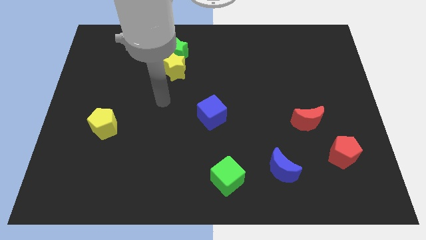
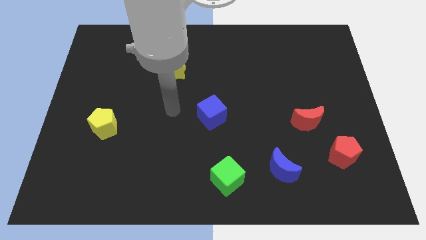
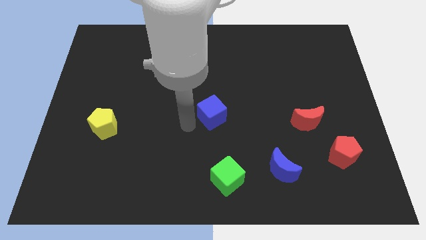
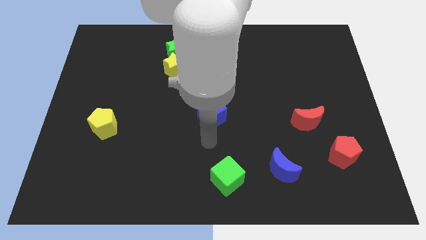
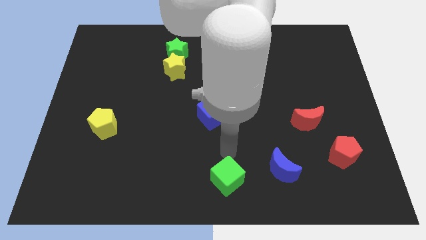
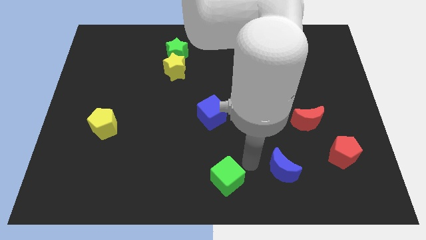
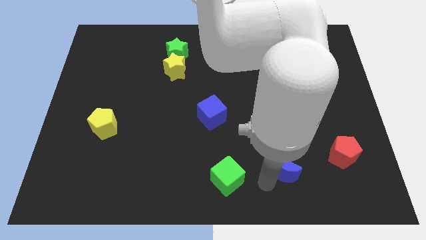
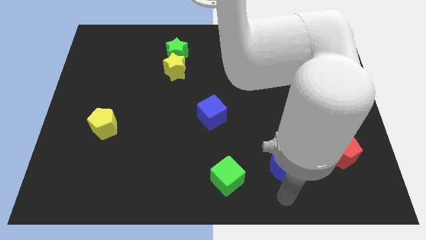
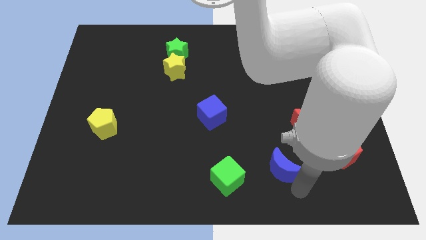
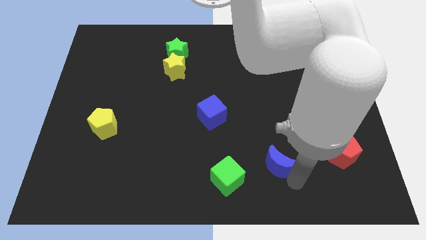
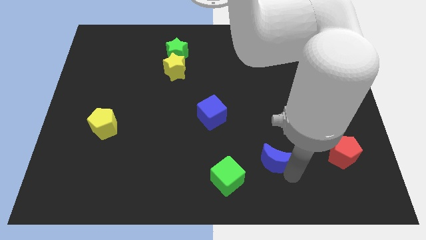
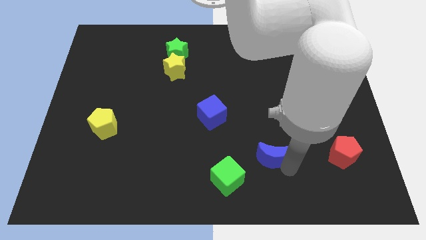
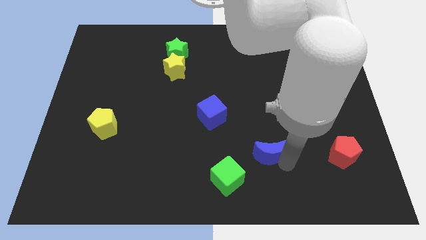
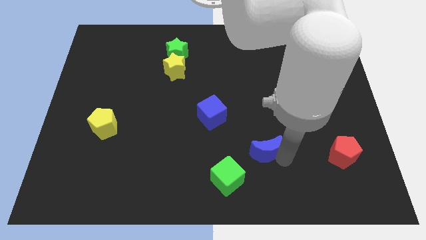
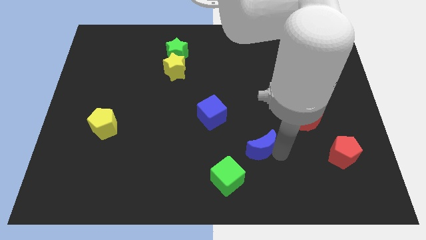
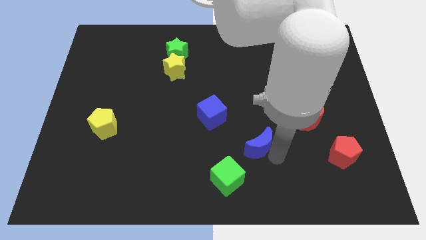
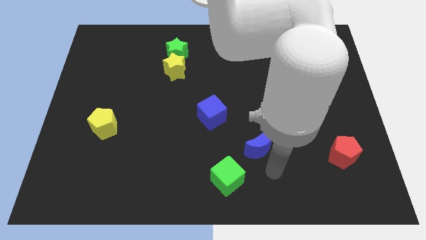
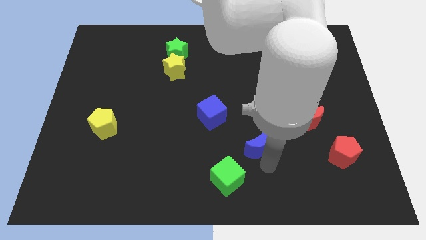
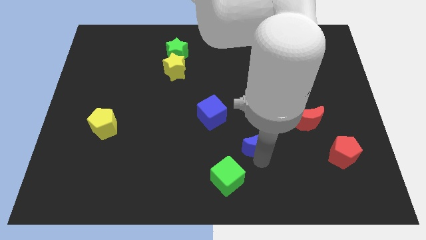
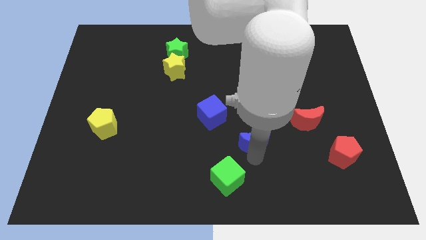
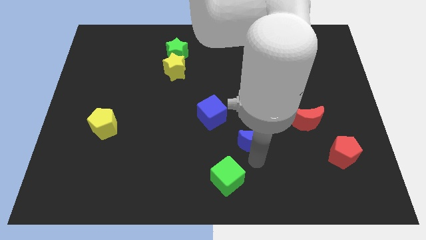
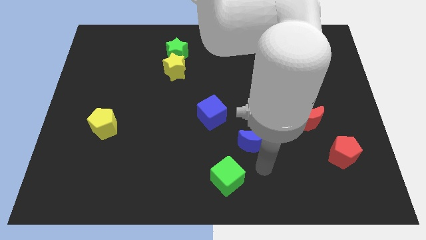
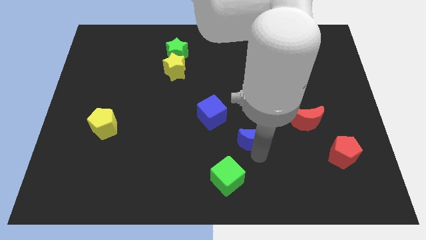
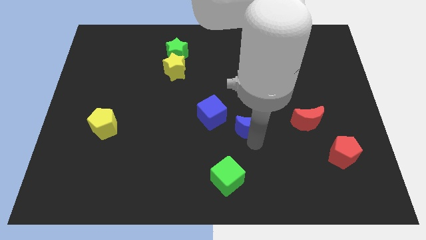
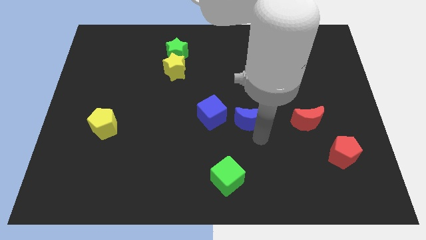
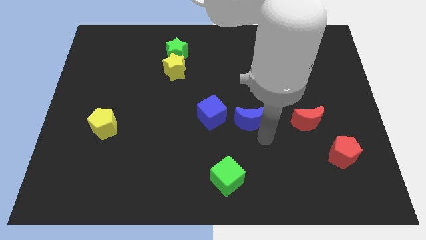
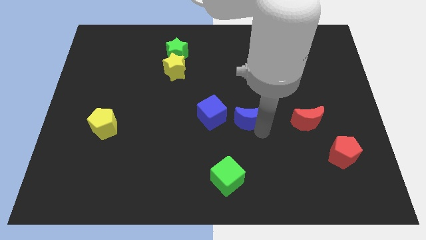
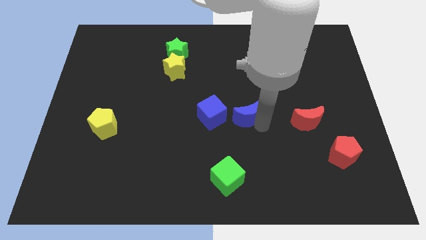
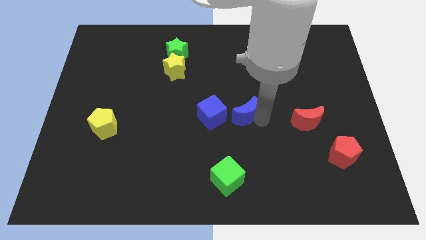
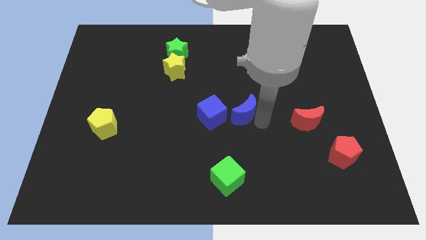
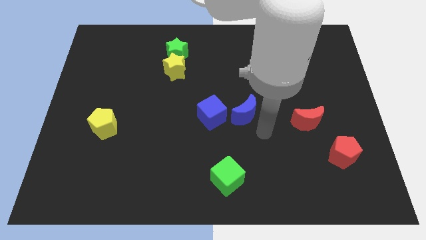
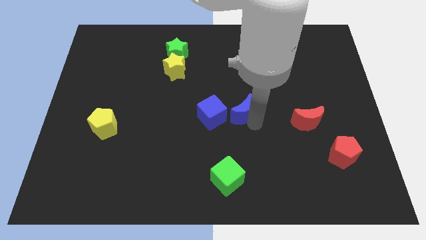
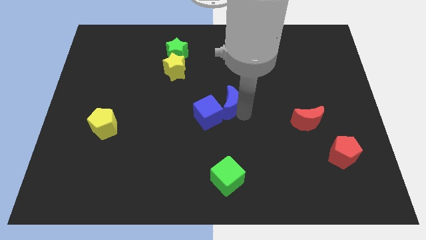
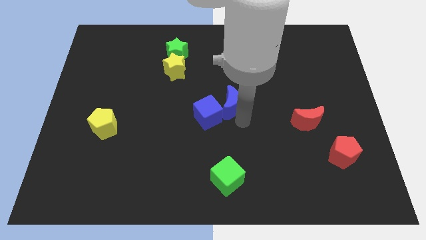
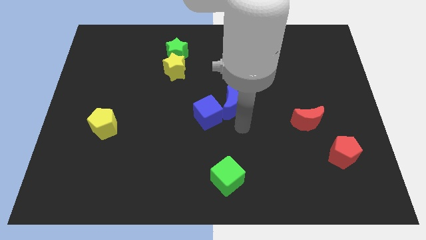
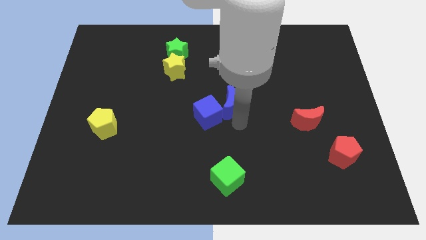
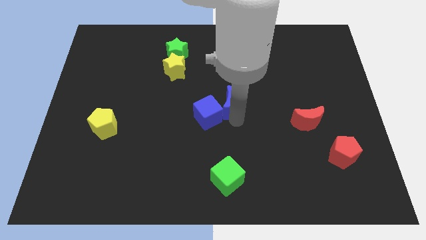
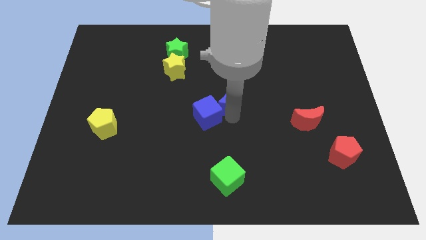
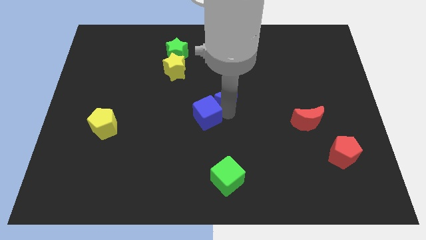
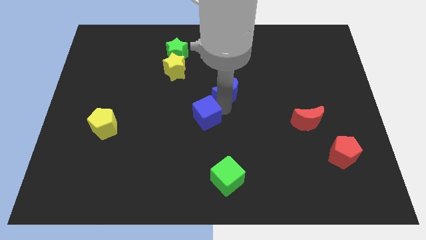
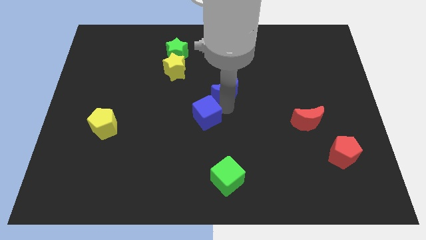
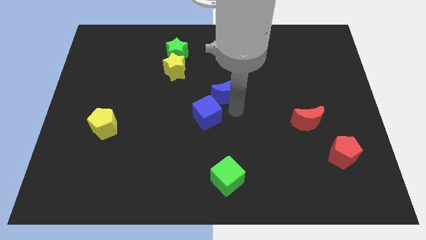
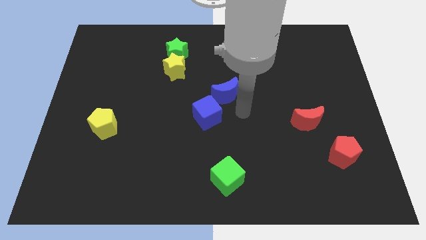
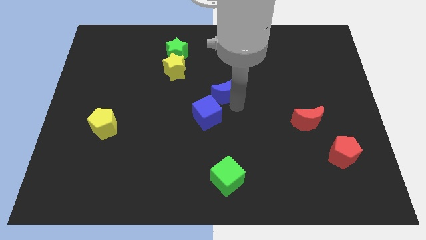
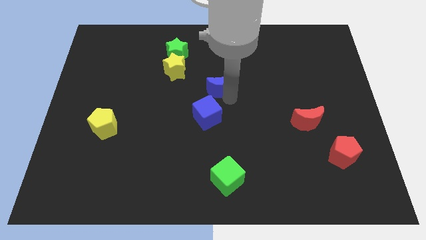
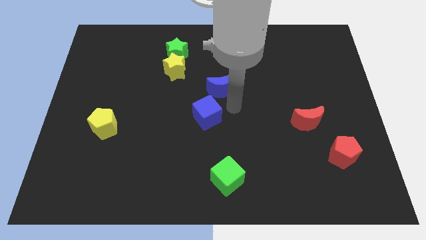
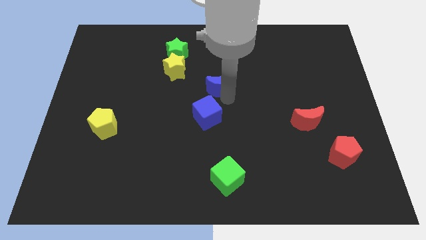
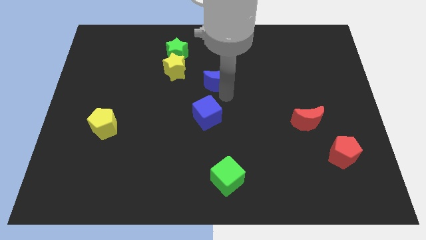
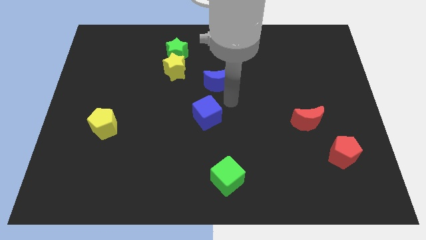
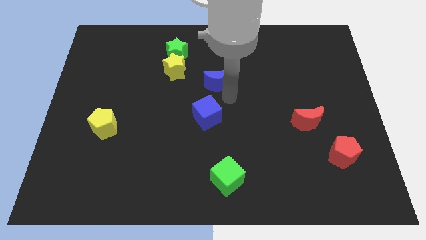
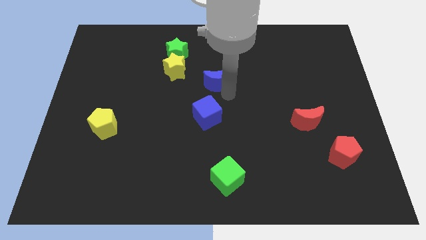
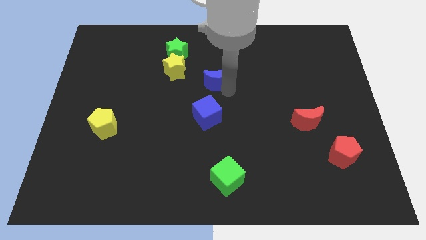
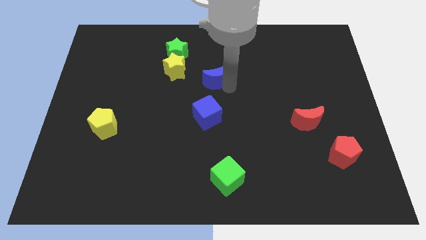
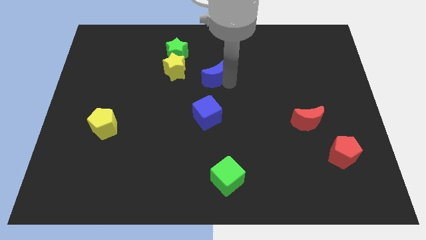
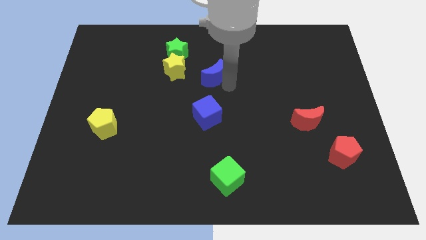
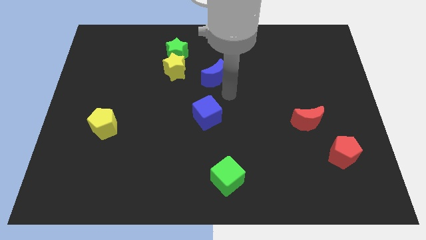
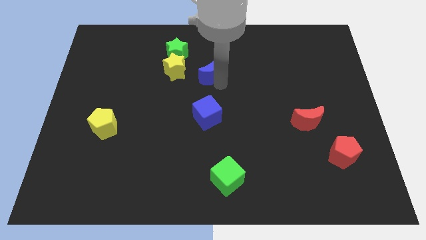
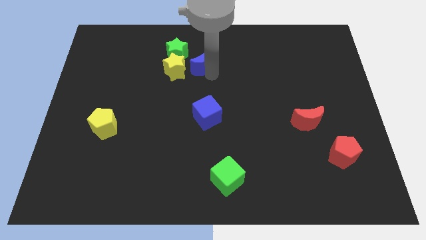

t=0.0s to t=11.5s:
push the blue moon diagonally up and to the right of the yellow star
